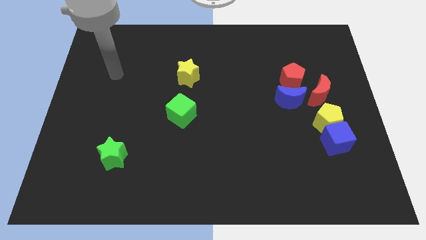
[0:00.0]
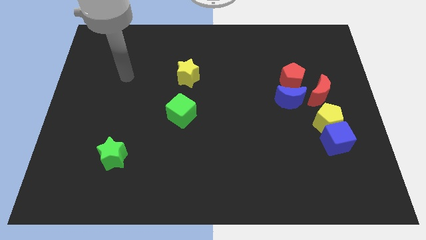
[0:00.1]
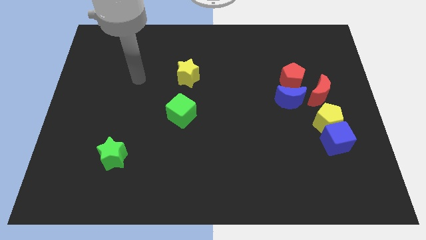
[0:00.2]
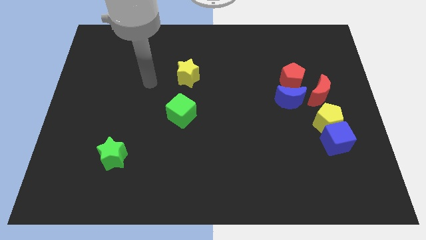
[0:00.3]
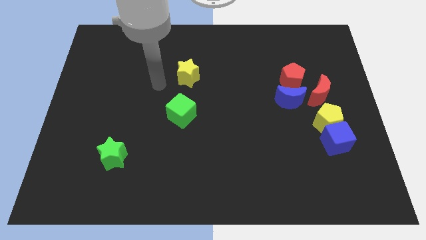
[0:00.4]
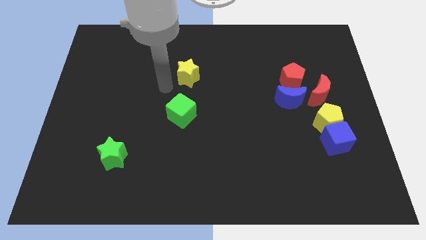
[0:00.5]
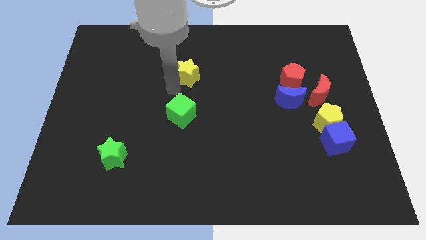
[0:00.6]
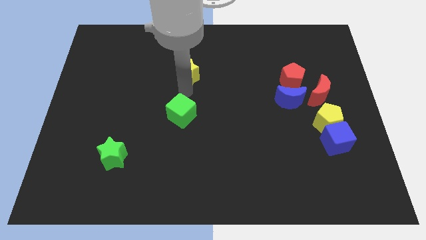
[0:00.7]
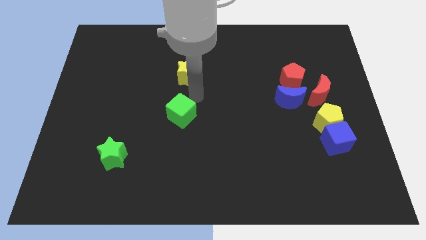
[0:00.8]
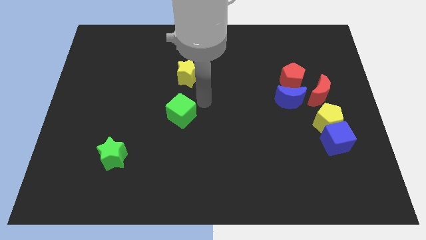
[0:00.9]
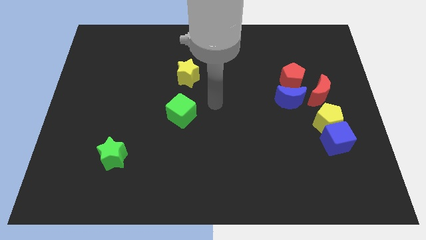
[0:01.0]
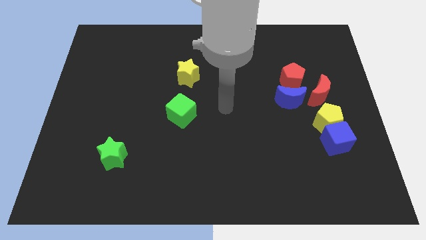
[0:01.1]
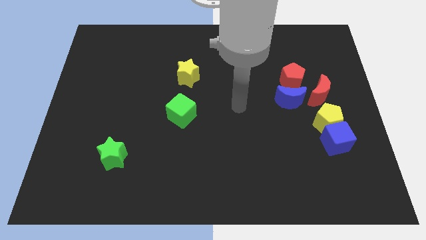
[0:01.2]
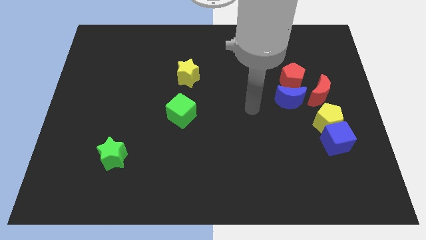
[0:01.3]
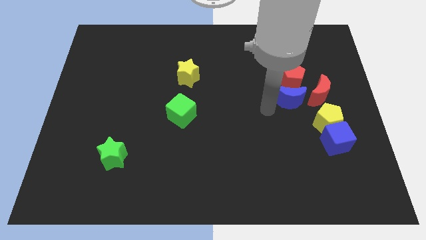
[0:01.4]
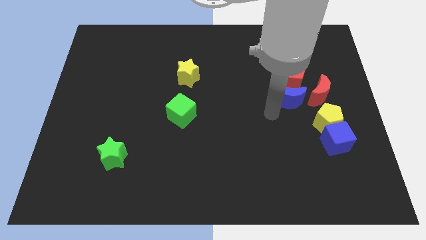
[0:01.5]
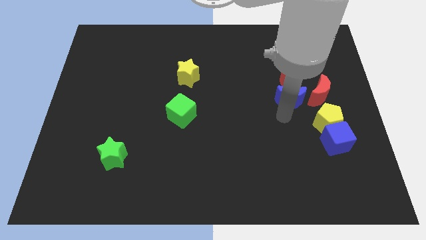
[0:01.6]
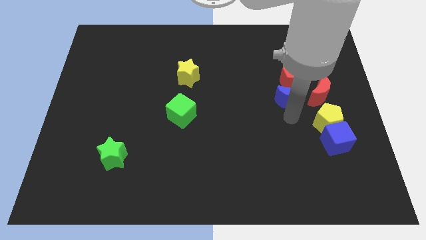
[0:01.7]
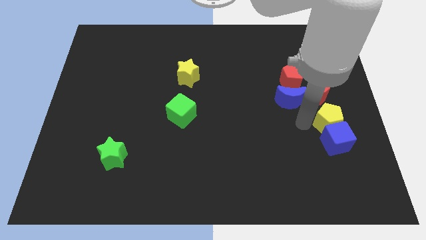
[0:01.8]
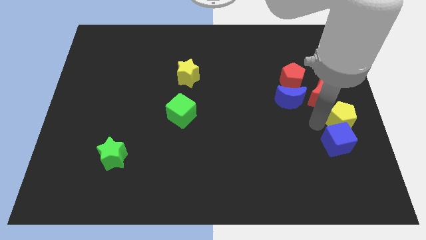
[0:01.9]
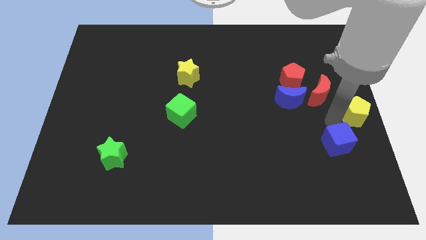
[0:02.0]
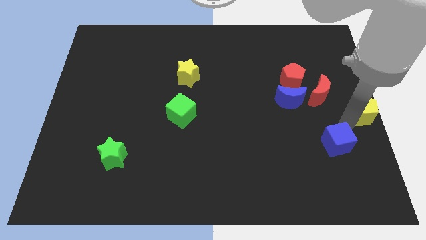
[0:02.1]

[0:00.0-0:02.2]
separate the blue cube from the yellow pentagon

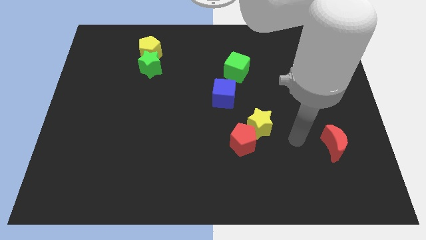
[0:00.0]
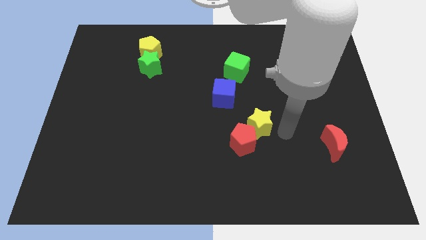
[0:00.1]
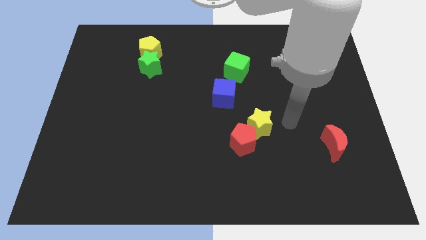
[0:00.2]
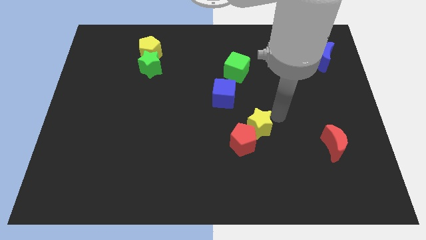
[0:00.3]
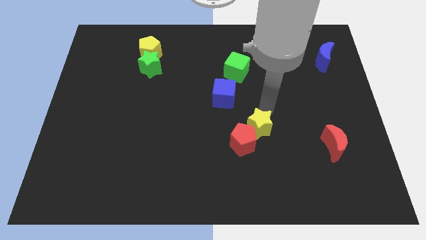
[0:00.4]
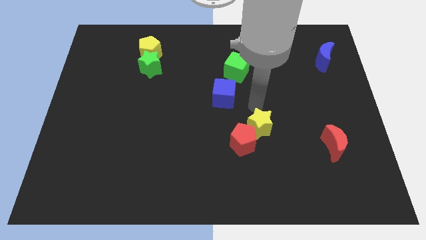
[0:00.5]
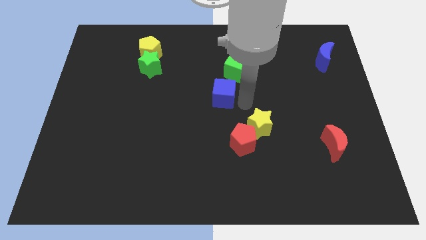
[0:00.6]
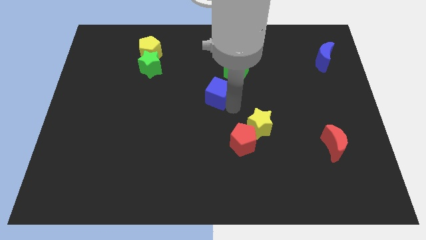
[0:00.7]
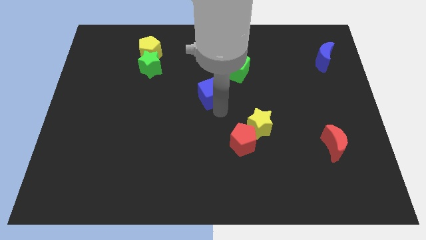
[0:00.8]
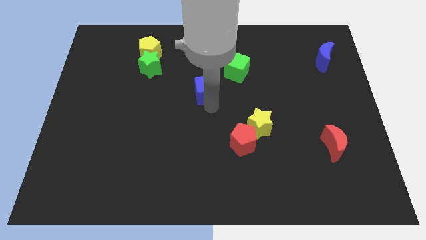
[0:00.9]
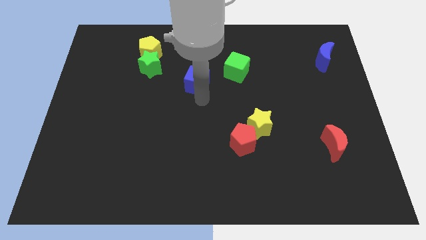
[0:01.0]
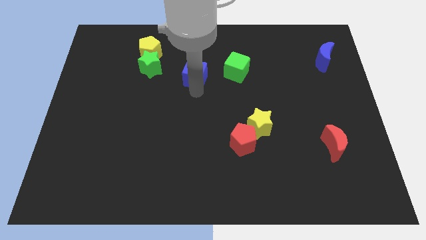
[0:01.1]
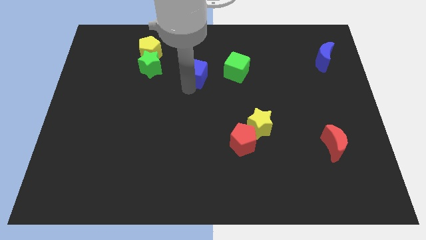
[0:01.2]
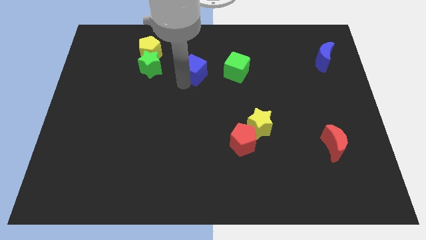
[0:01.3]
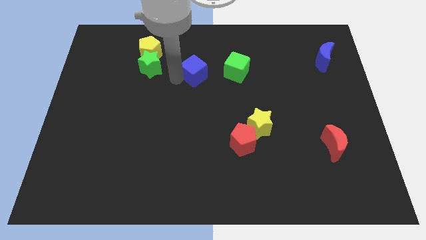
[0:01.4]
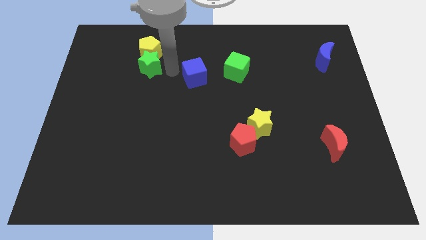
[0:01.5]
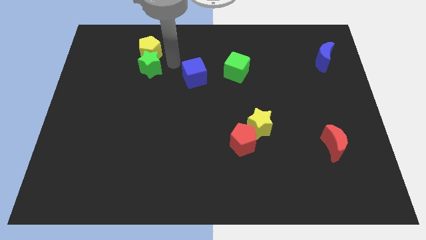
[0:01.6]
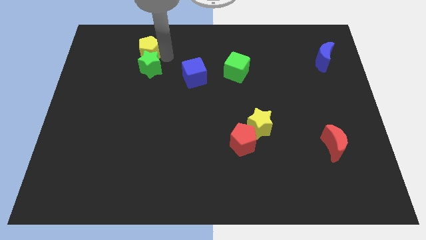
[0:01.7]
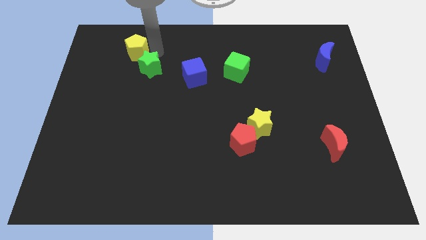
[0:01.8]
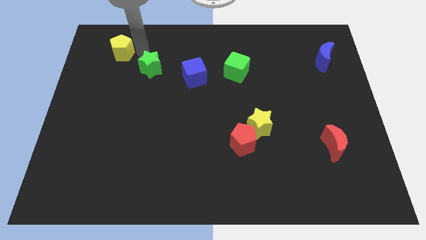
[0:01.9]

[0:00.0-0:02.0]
separate the green star from the yellow pentagon

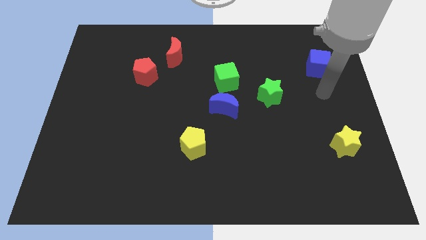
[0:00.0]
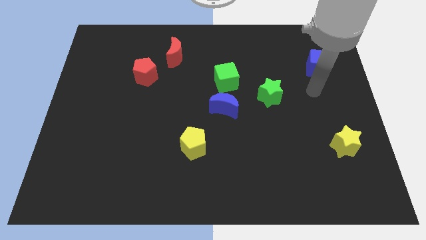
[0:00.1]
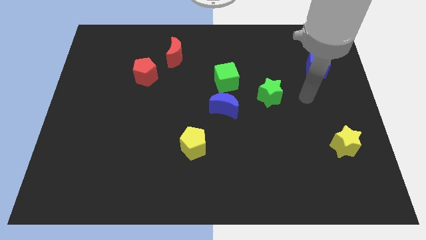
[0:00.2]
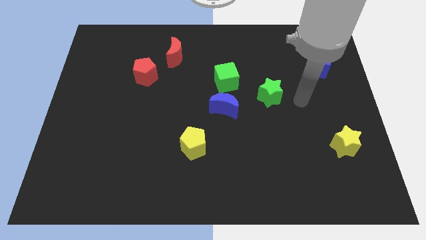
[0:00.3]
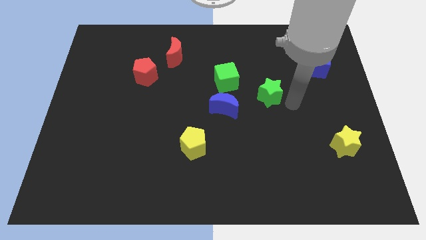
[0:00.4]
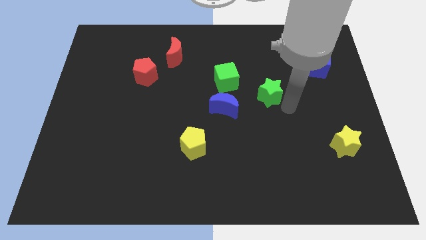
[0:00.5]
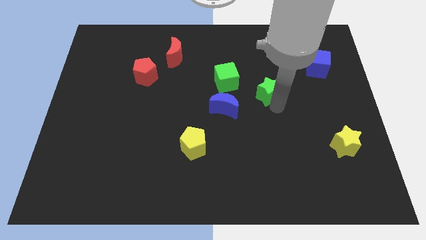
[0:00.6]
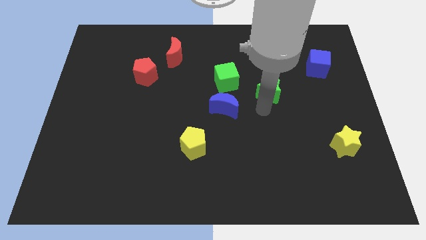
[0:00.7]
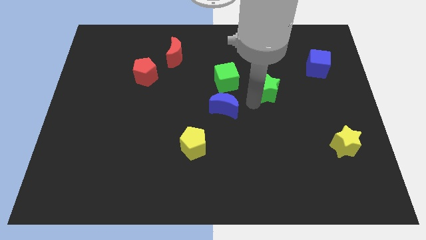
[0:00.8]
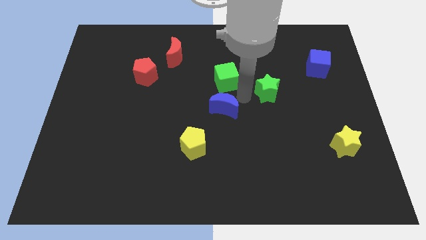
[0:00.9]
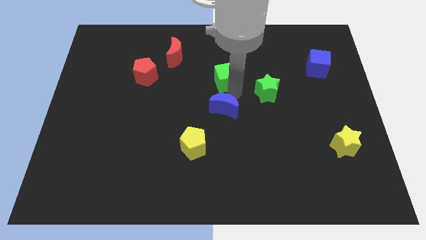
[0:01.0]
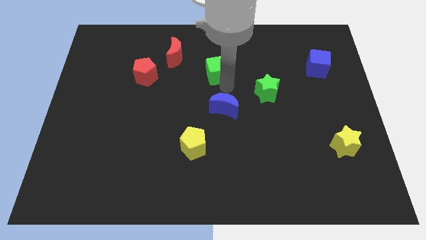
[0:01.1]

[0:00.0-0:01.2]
separate the blue moon from the green cube

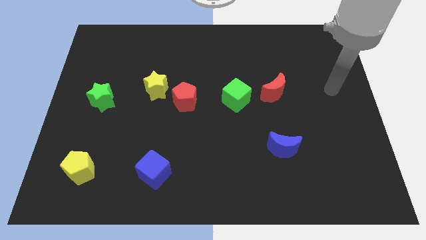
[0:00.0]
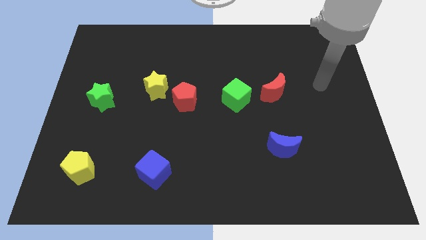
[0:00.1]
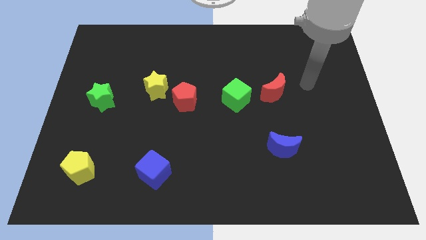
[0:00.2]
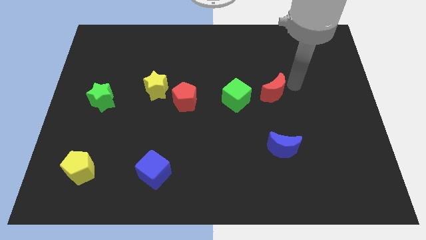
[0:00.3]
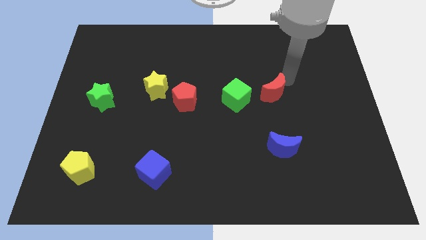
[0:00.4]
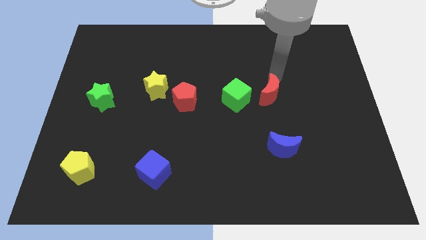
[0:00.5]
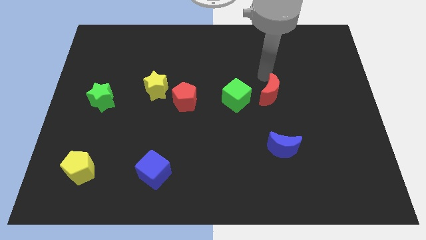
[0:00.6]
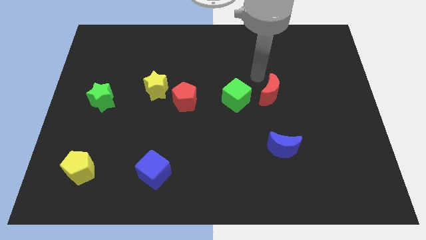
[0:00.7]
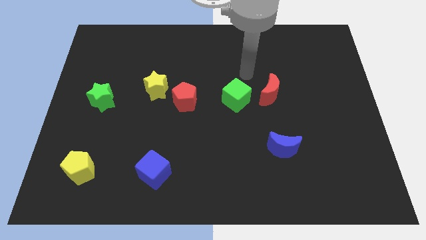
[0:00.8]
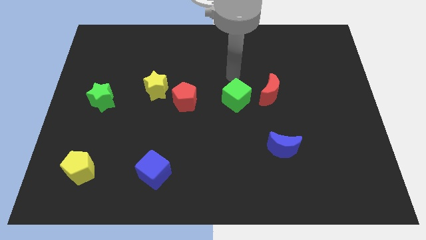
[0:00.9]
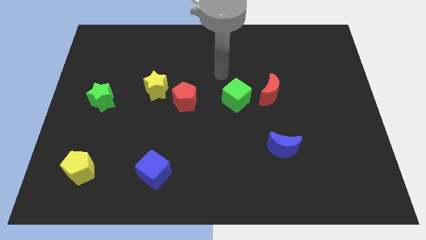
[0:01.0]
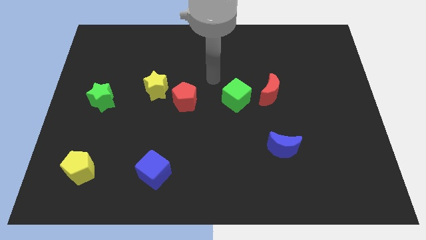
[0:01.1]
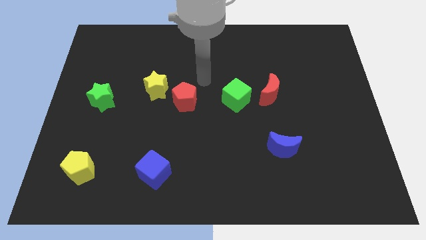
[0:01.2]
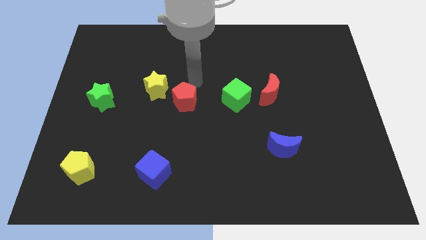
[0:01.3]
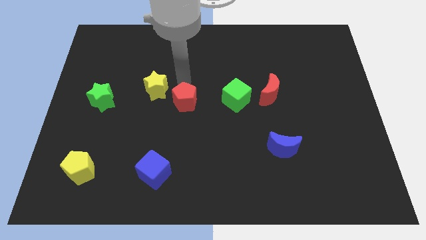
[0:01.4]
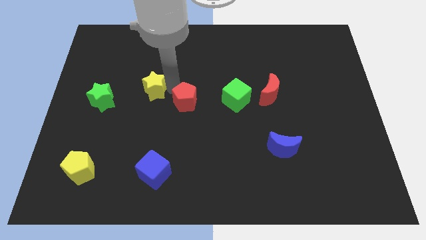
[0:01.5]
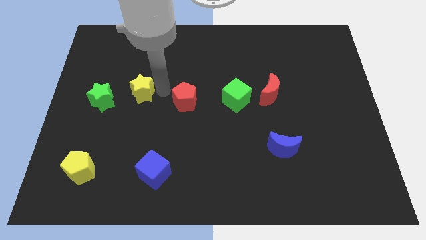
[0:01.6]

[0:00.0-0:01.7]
move the red pentagon away from the yellow star

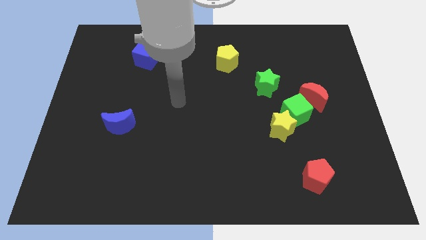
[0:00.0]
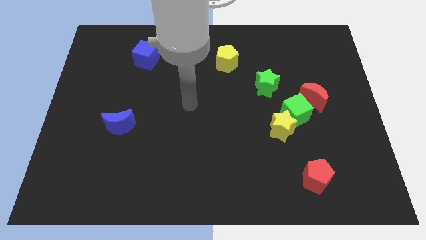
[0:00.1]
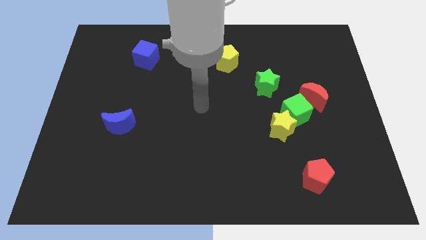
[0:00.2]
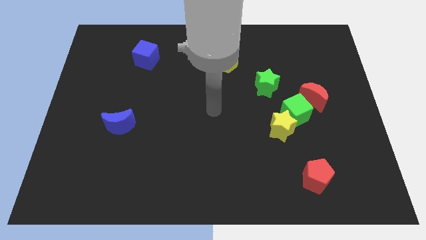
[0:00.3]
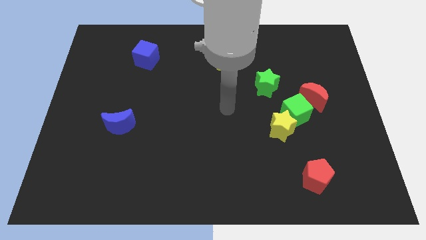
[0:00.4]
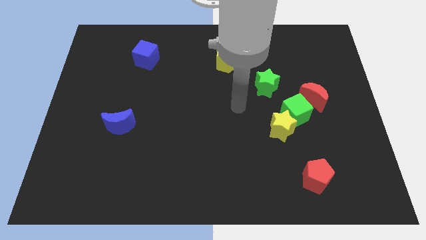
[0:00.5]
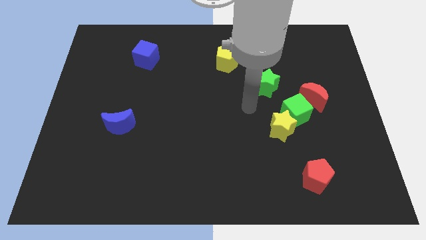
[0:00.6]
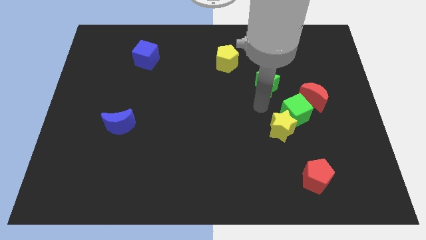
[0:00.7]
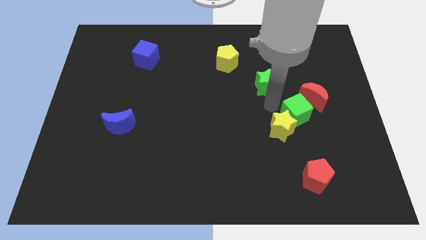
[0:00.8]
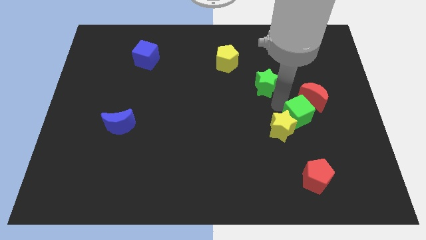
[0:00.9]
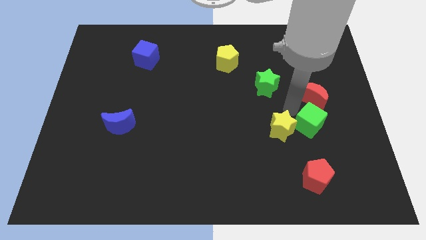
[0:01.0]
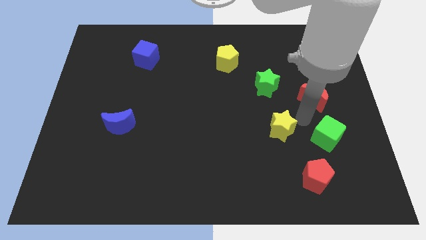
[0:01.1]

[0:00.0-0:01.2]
pull the yellow star apart from the green cube

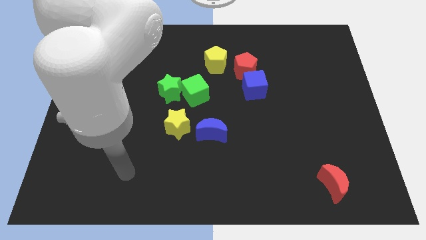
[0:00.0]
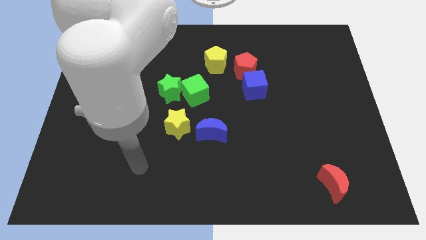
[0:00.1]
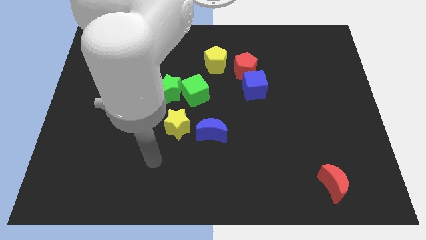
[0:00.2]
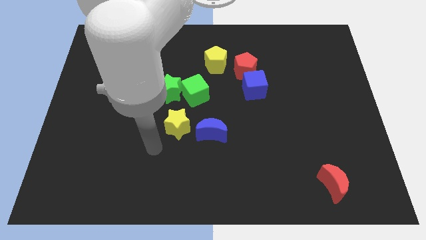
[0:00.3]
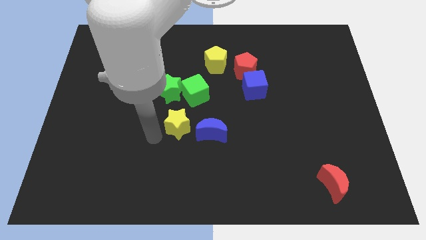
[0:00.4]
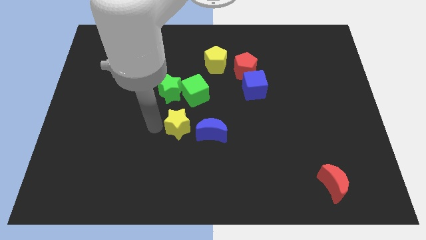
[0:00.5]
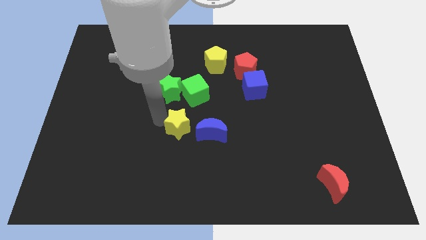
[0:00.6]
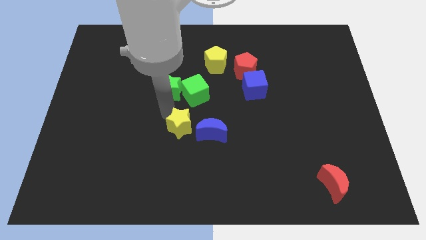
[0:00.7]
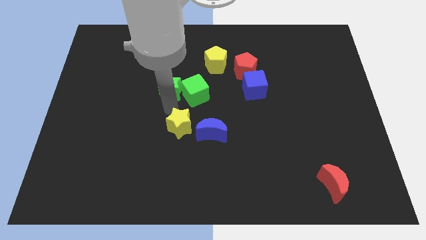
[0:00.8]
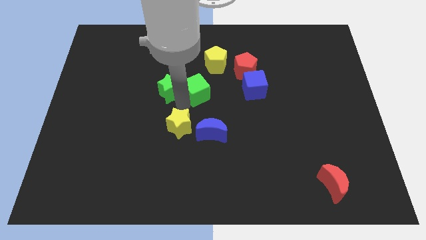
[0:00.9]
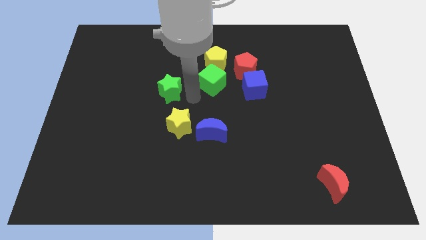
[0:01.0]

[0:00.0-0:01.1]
pull the green star apart from the green cube
